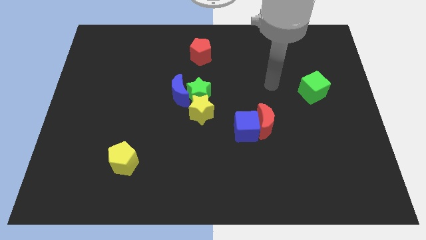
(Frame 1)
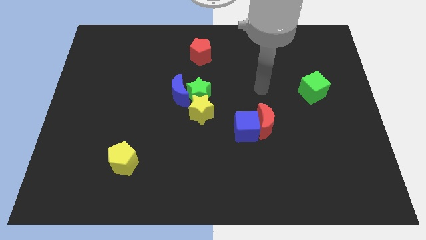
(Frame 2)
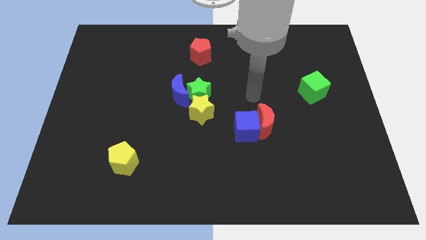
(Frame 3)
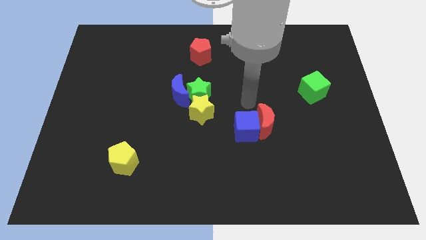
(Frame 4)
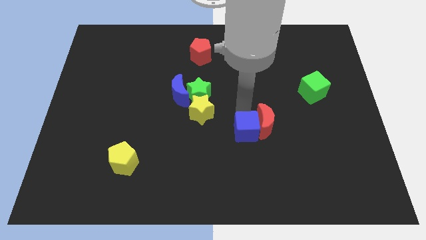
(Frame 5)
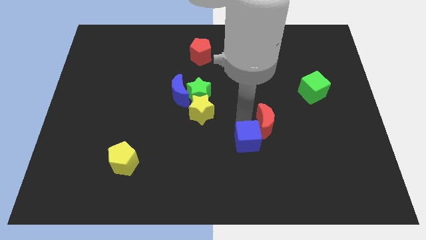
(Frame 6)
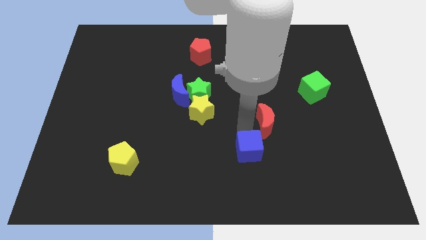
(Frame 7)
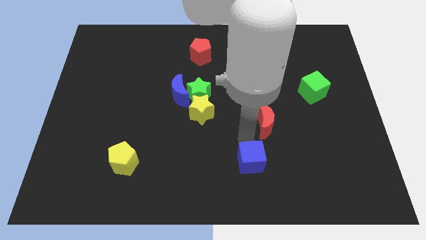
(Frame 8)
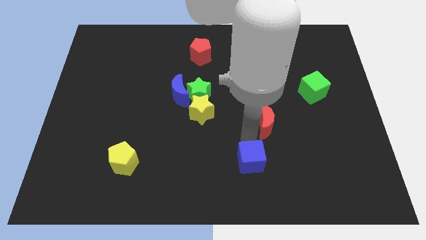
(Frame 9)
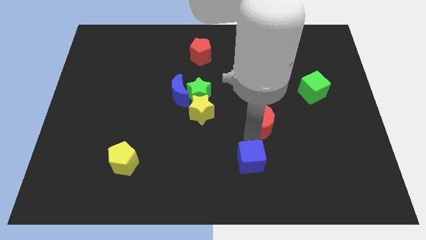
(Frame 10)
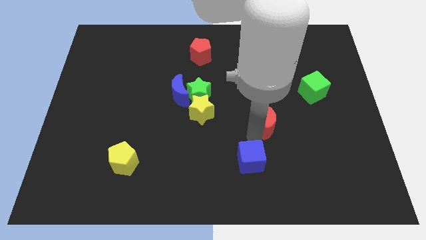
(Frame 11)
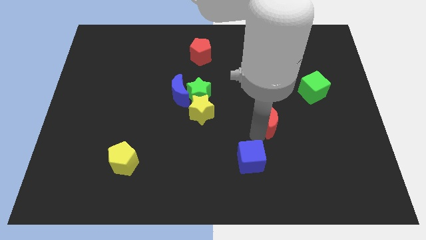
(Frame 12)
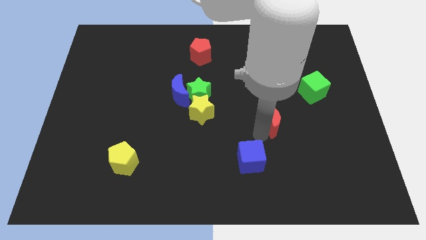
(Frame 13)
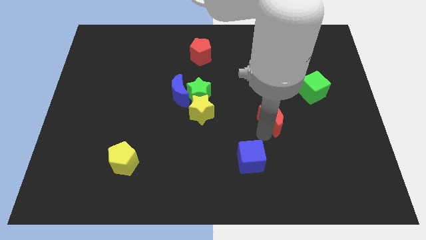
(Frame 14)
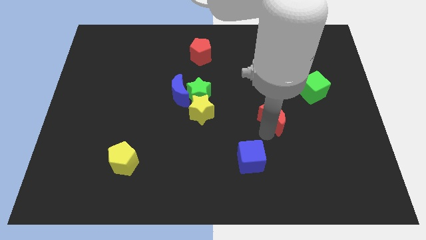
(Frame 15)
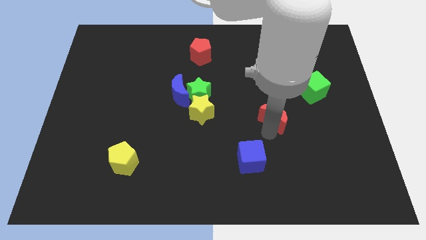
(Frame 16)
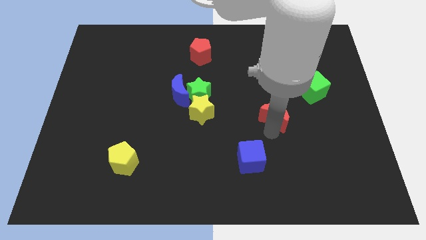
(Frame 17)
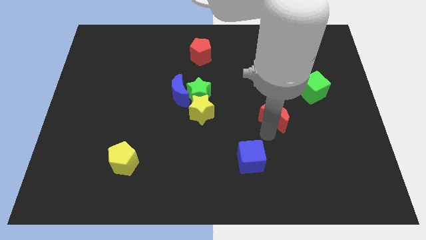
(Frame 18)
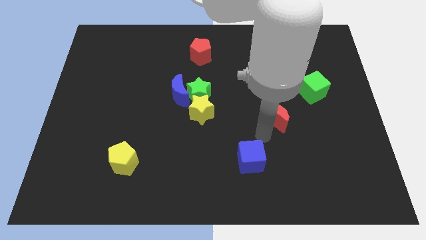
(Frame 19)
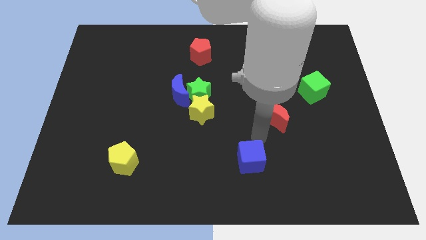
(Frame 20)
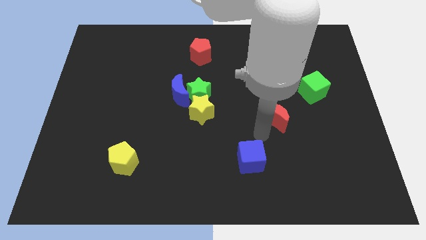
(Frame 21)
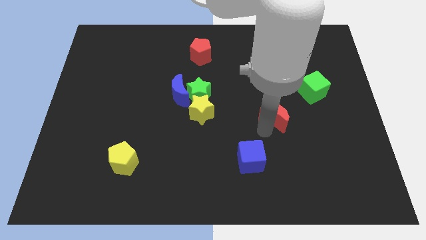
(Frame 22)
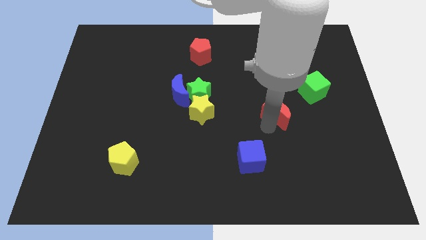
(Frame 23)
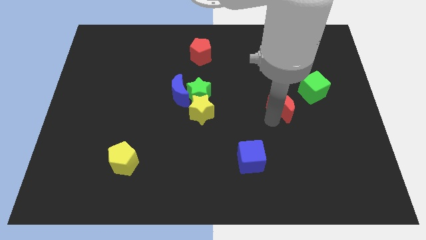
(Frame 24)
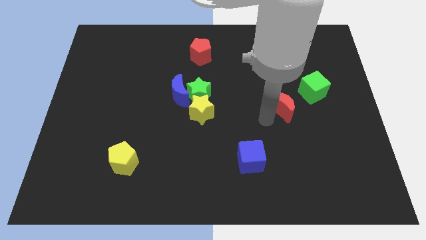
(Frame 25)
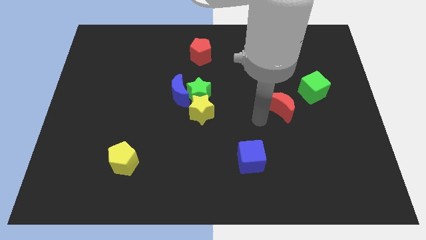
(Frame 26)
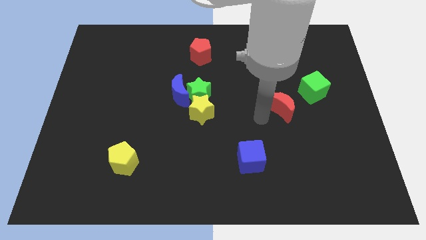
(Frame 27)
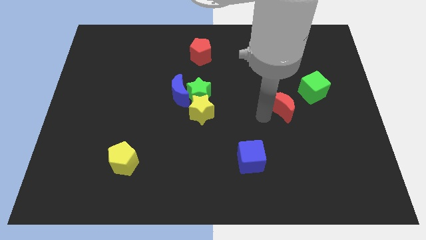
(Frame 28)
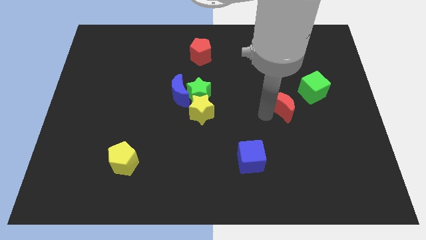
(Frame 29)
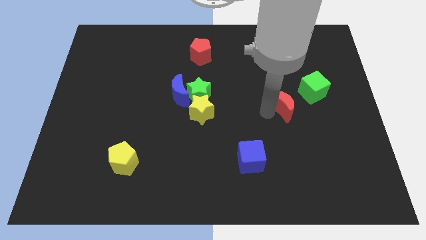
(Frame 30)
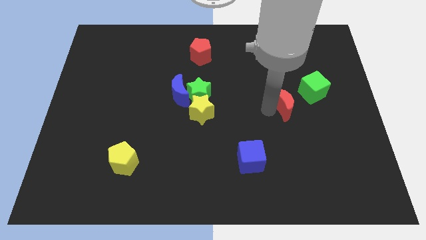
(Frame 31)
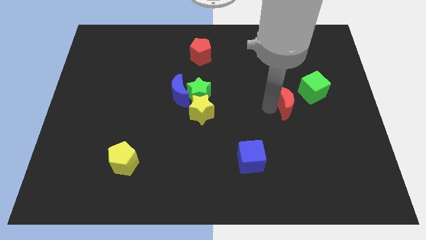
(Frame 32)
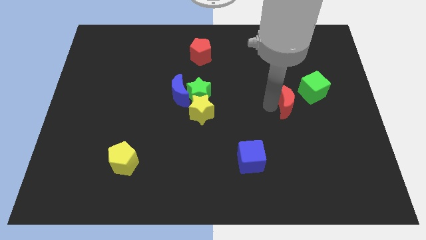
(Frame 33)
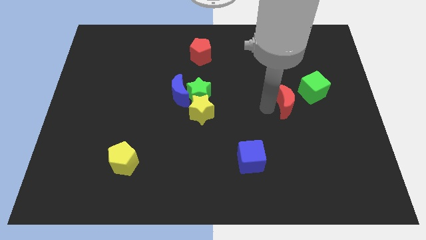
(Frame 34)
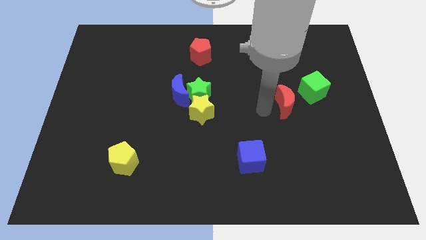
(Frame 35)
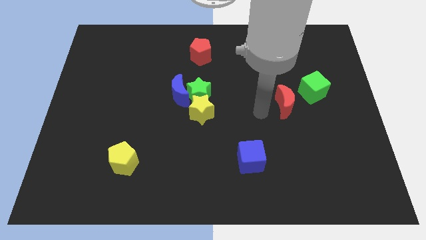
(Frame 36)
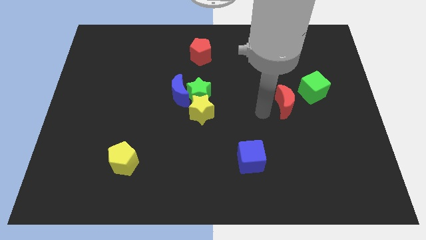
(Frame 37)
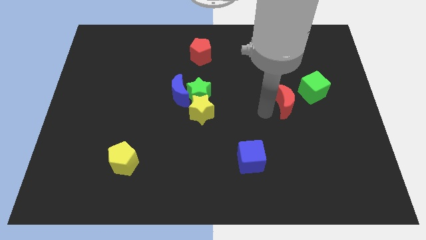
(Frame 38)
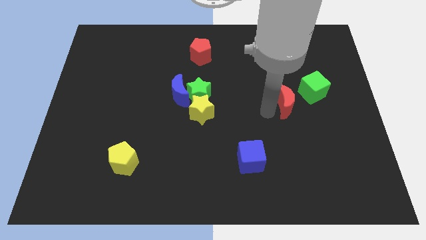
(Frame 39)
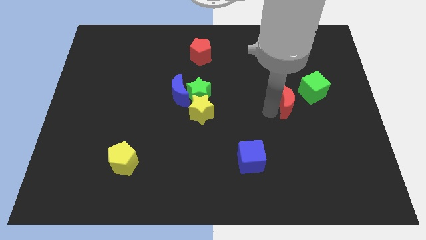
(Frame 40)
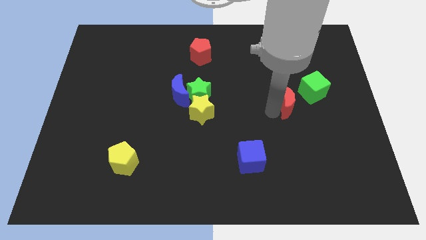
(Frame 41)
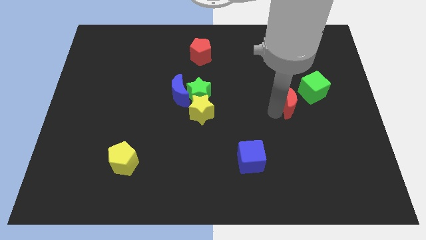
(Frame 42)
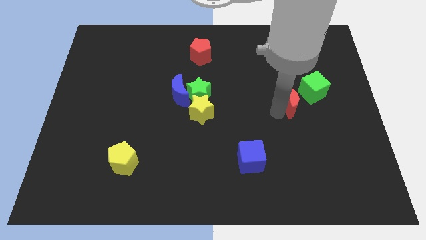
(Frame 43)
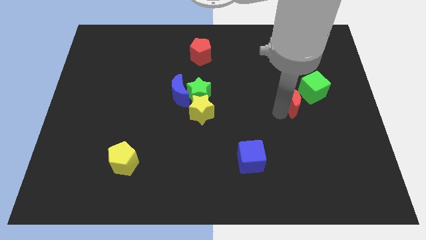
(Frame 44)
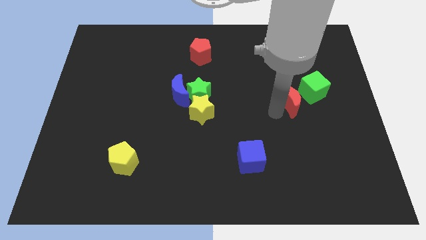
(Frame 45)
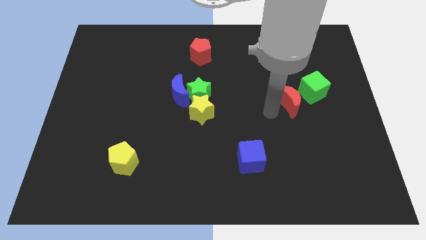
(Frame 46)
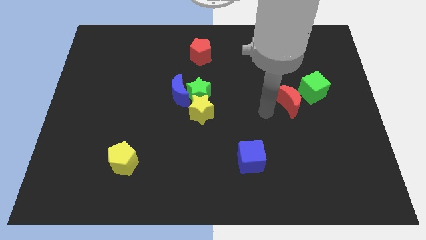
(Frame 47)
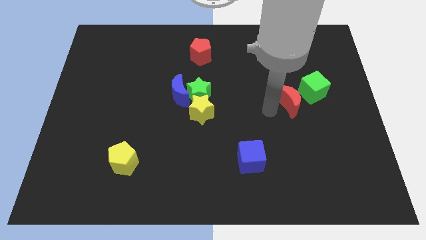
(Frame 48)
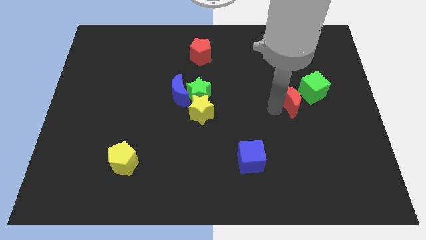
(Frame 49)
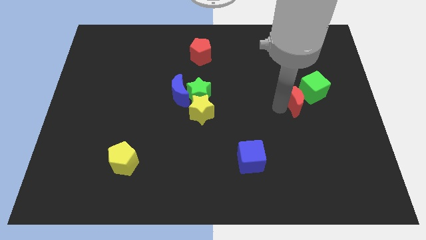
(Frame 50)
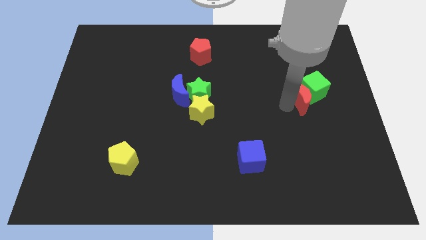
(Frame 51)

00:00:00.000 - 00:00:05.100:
push the red moon next to the green cube

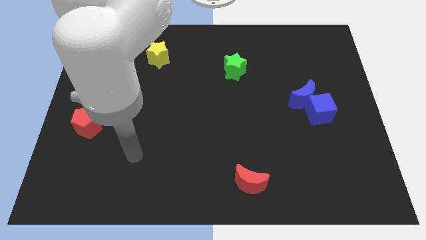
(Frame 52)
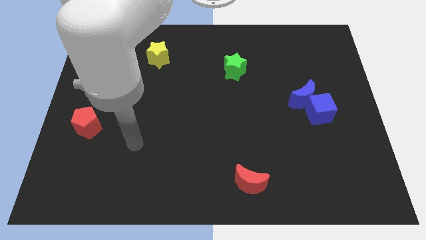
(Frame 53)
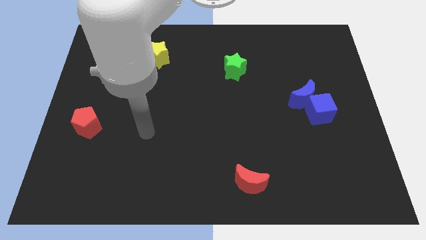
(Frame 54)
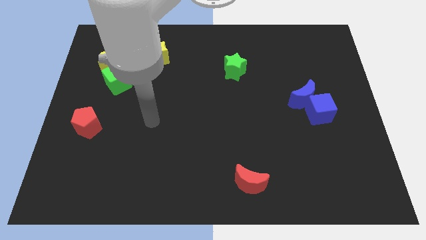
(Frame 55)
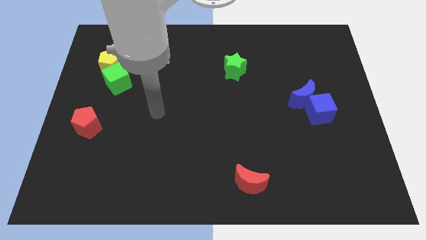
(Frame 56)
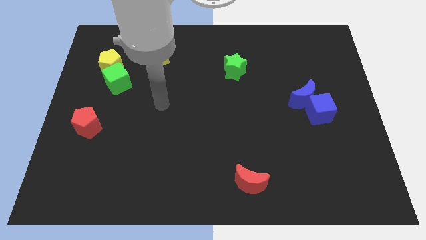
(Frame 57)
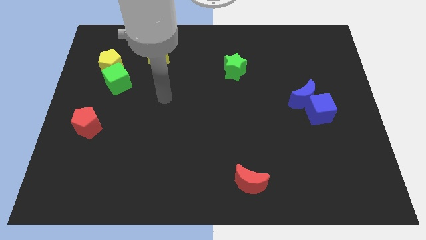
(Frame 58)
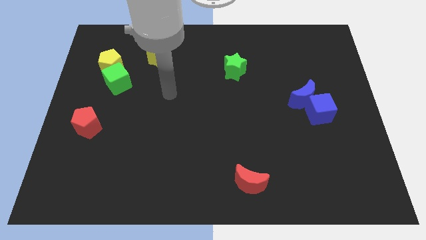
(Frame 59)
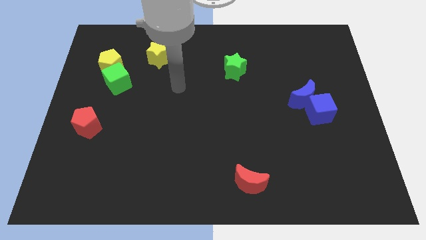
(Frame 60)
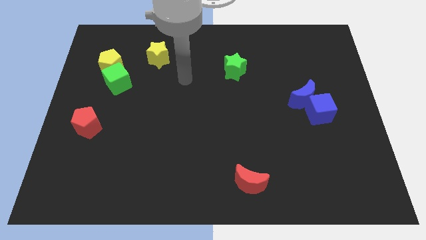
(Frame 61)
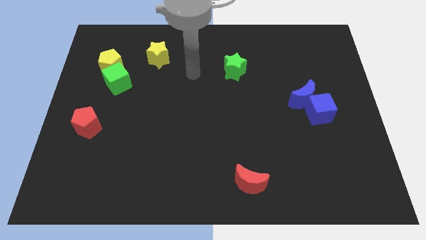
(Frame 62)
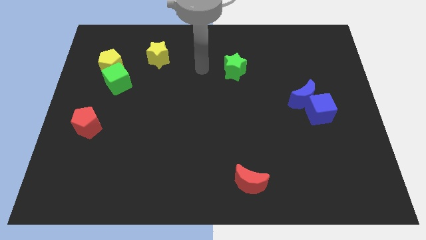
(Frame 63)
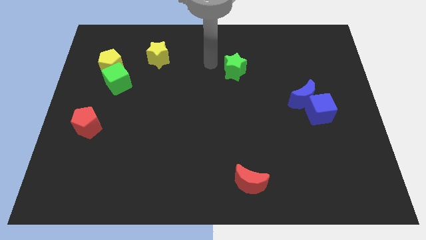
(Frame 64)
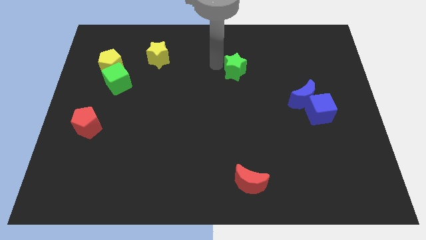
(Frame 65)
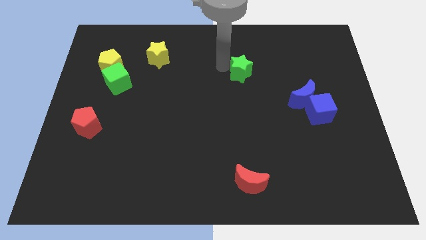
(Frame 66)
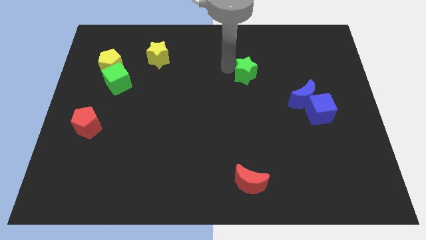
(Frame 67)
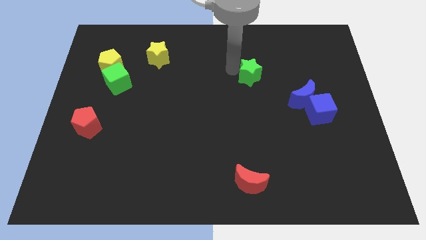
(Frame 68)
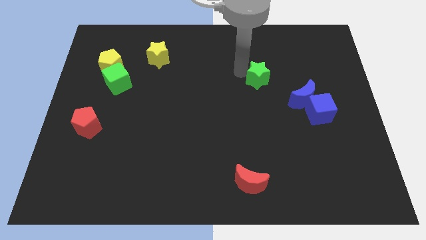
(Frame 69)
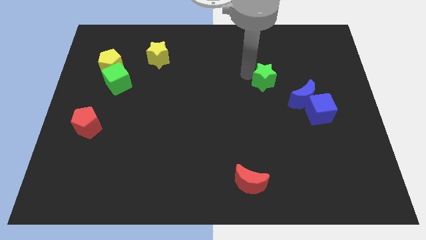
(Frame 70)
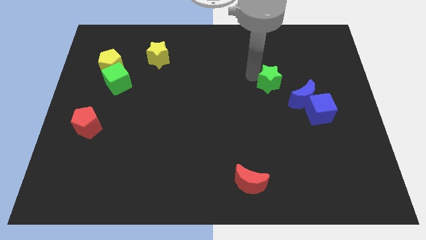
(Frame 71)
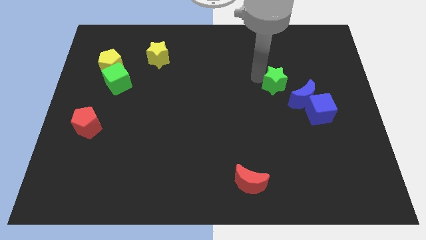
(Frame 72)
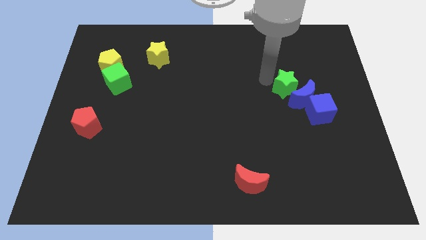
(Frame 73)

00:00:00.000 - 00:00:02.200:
slide the green star next to the blue moon
